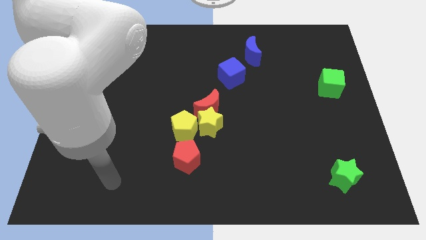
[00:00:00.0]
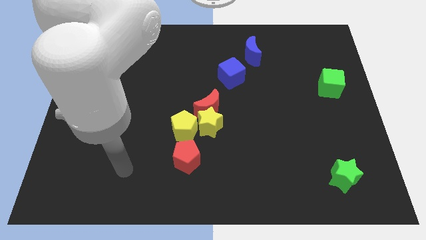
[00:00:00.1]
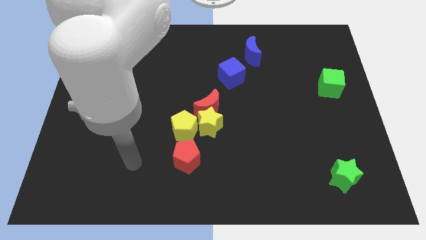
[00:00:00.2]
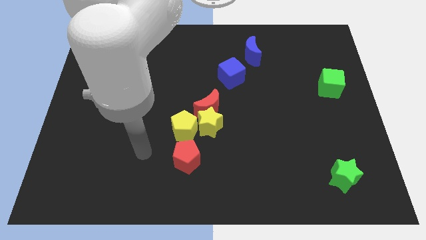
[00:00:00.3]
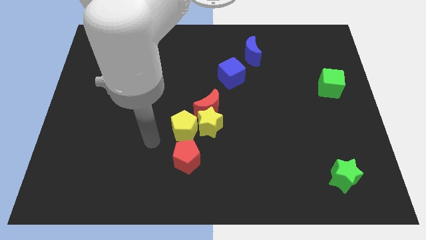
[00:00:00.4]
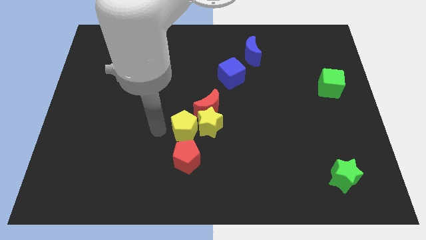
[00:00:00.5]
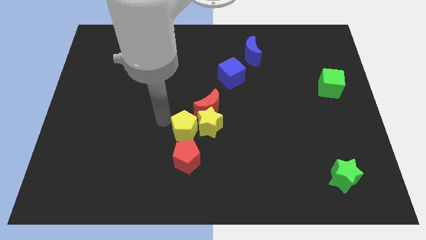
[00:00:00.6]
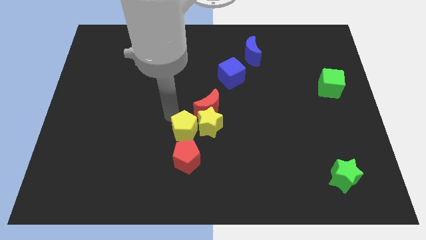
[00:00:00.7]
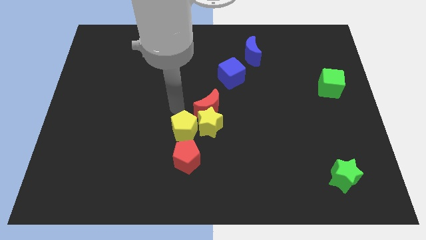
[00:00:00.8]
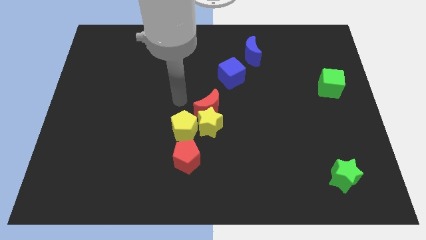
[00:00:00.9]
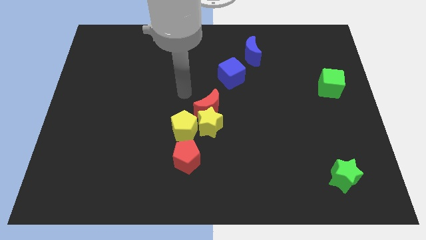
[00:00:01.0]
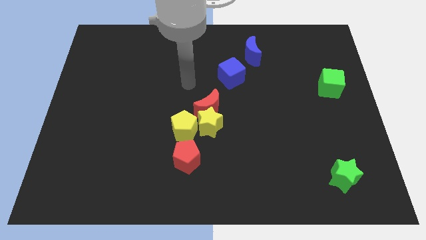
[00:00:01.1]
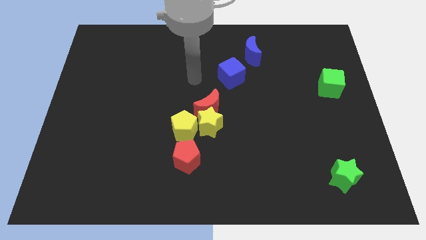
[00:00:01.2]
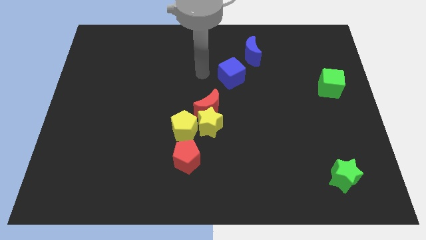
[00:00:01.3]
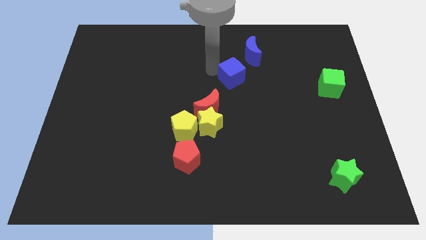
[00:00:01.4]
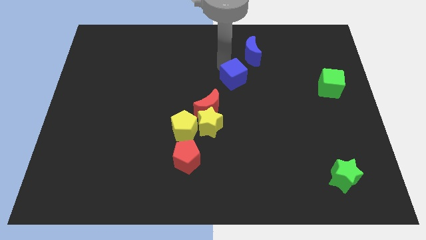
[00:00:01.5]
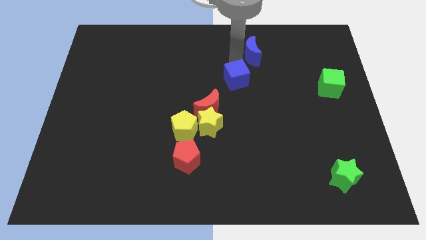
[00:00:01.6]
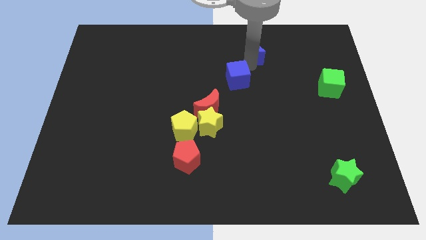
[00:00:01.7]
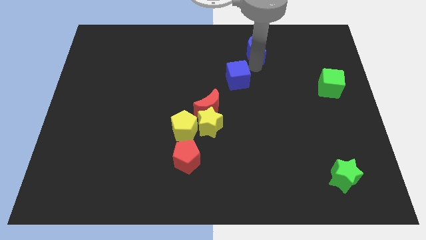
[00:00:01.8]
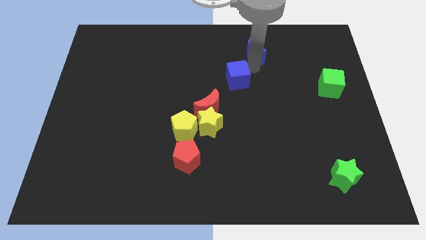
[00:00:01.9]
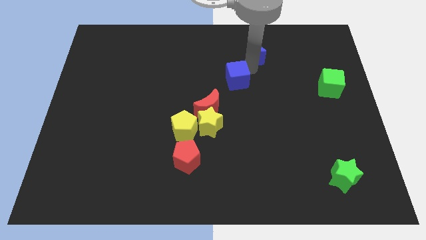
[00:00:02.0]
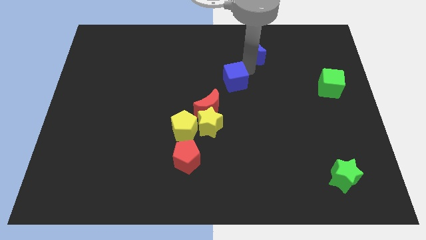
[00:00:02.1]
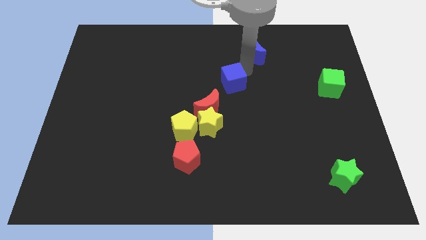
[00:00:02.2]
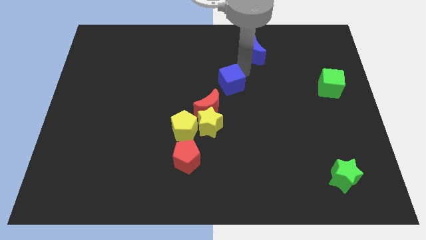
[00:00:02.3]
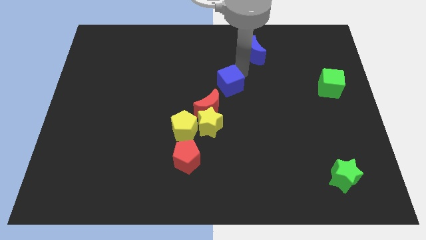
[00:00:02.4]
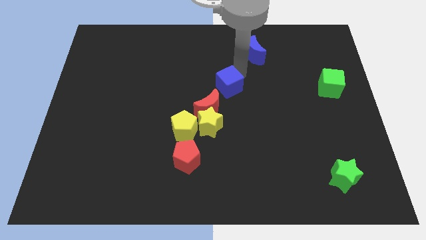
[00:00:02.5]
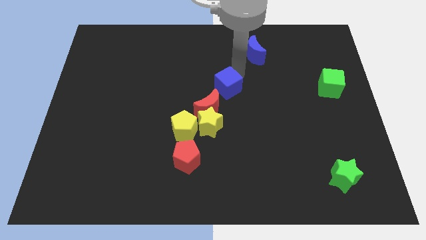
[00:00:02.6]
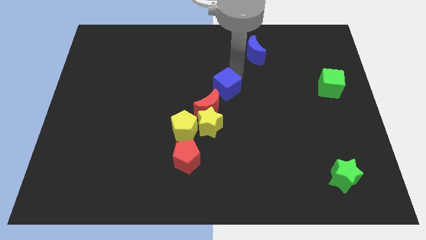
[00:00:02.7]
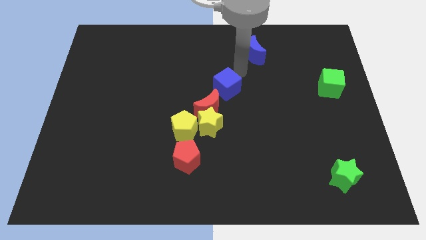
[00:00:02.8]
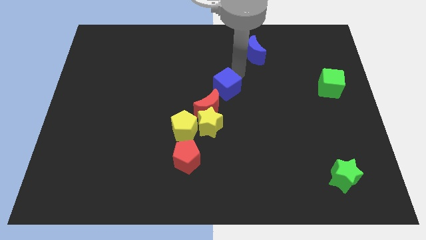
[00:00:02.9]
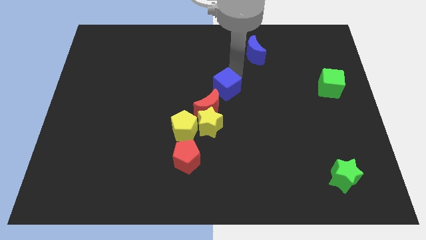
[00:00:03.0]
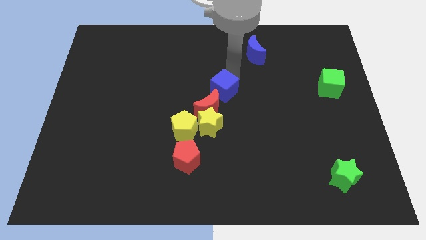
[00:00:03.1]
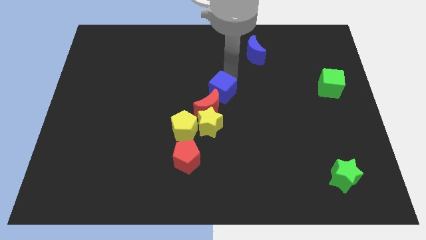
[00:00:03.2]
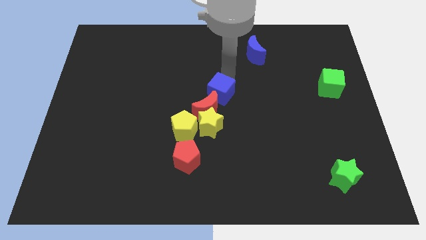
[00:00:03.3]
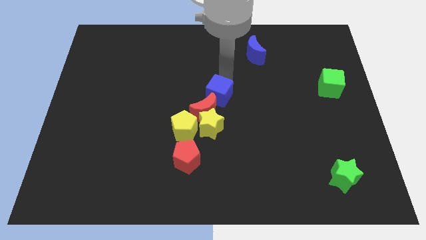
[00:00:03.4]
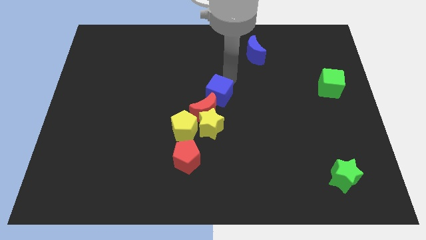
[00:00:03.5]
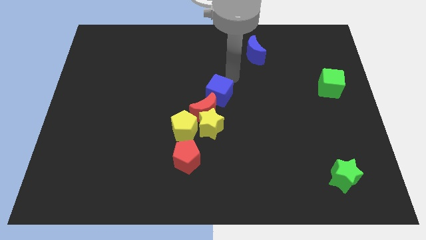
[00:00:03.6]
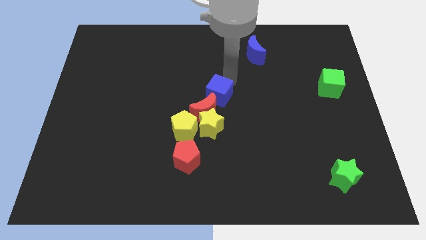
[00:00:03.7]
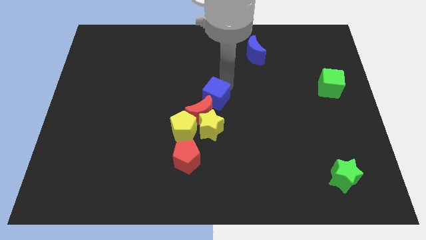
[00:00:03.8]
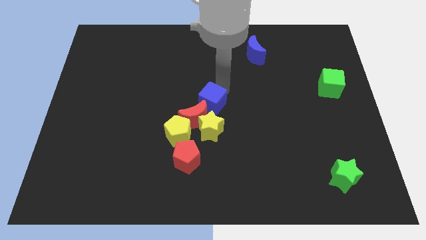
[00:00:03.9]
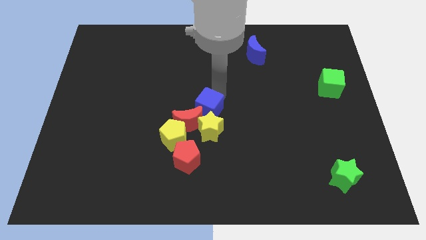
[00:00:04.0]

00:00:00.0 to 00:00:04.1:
push the blue cube next to the red moon

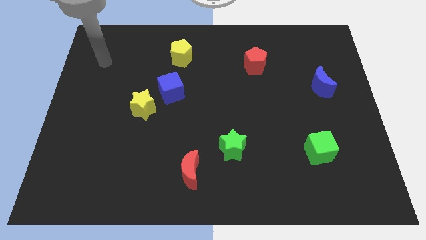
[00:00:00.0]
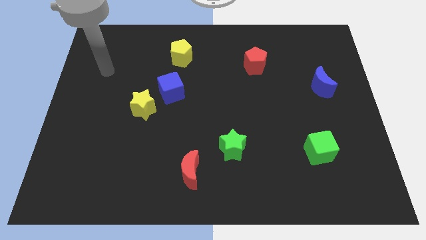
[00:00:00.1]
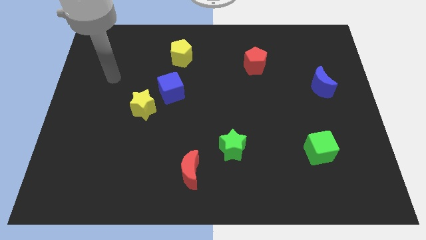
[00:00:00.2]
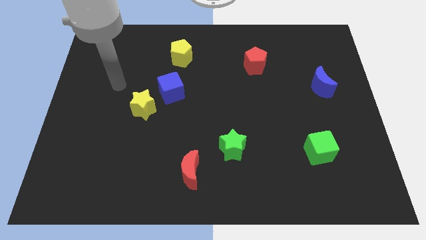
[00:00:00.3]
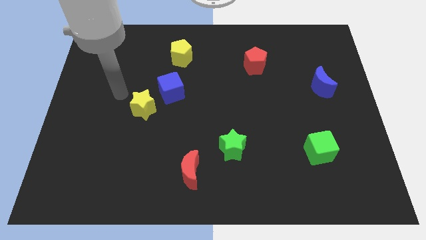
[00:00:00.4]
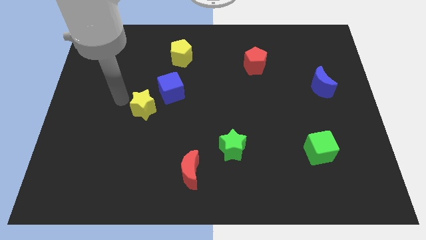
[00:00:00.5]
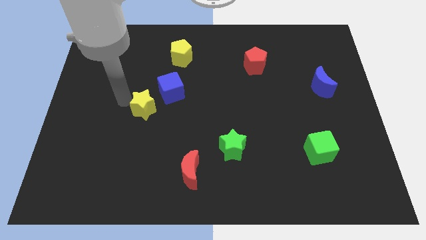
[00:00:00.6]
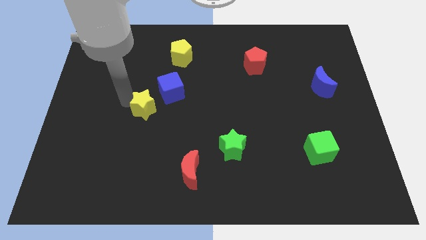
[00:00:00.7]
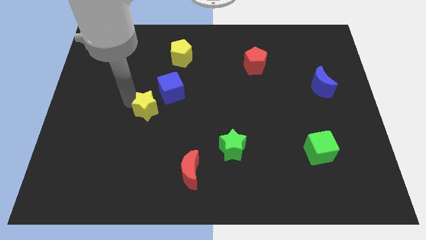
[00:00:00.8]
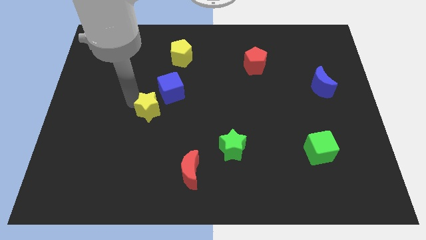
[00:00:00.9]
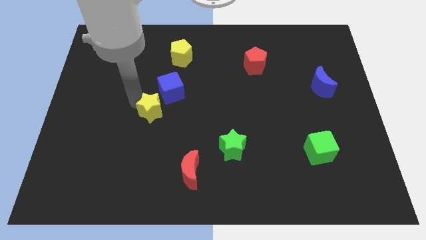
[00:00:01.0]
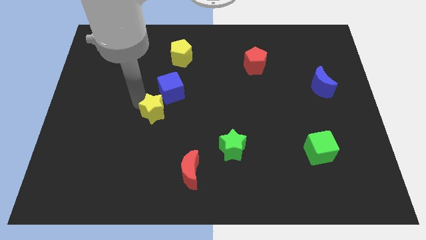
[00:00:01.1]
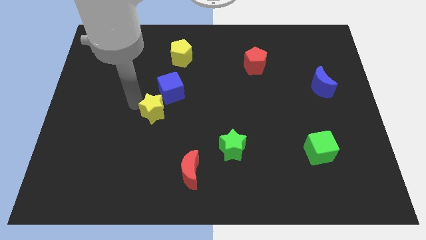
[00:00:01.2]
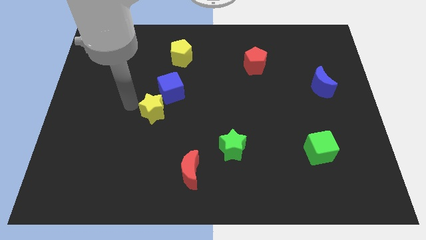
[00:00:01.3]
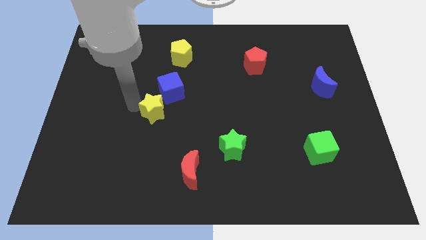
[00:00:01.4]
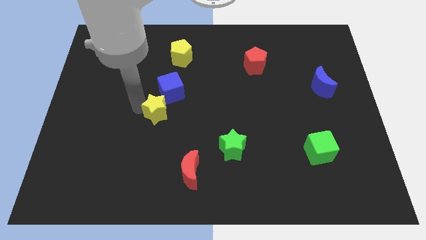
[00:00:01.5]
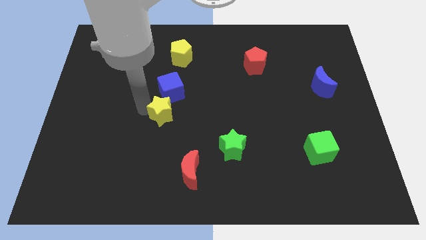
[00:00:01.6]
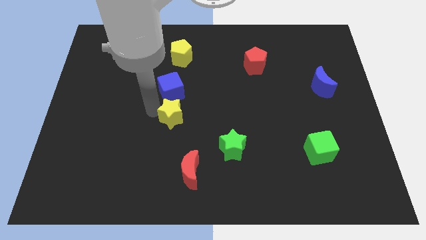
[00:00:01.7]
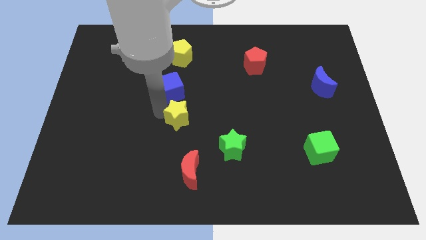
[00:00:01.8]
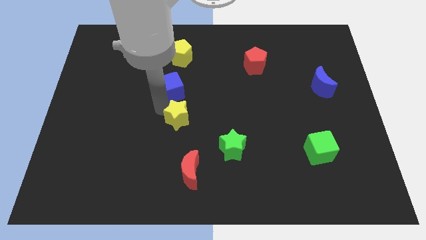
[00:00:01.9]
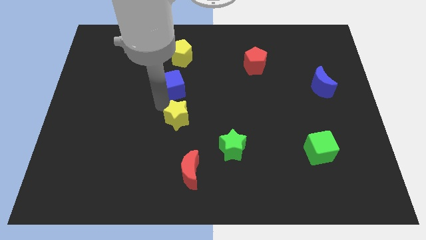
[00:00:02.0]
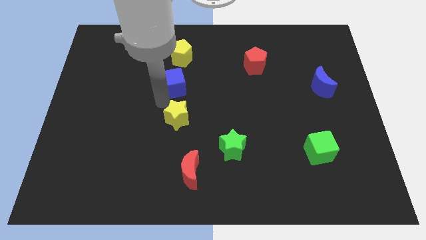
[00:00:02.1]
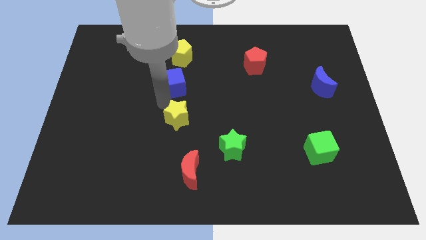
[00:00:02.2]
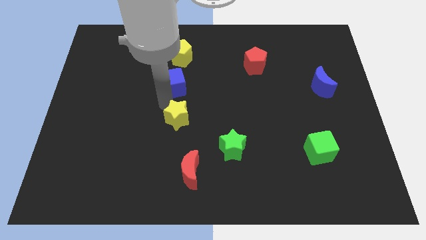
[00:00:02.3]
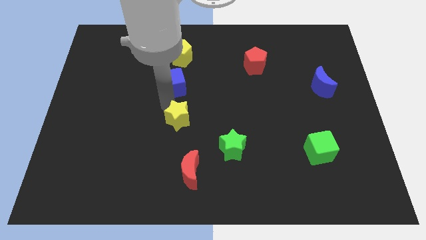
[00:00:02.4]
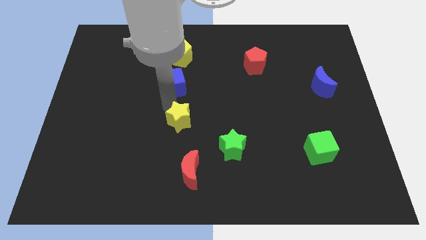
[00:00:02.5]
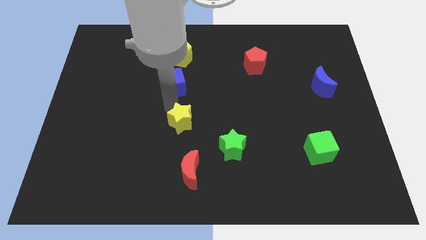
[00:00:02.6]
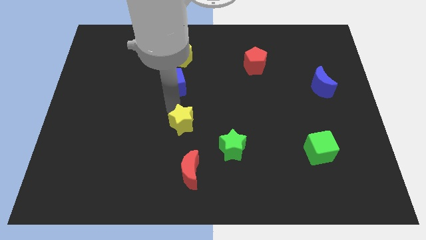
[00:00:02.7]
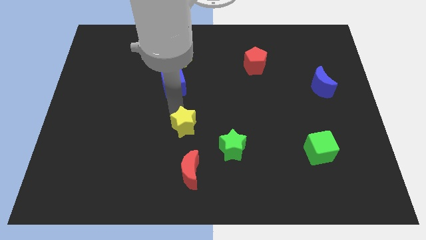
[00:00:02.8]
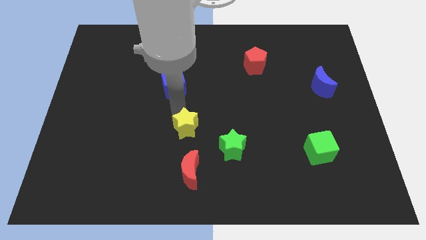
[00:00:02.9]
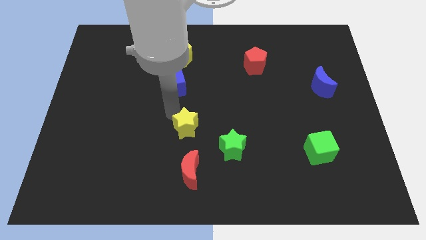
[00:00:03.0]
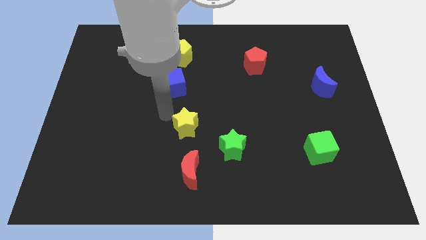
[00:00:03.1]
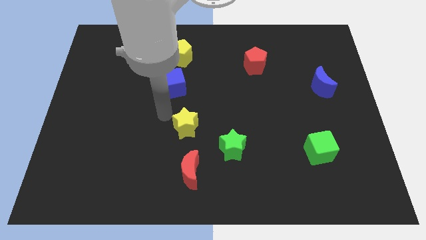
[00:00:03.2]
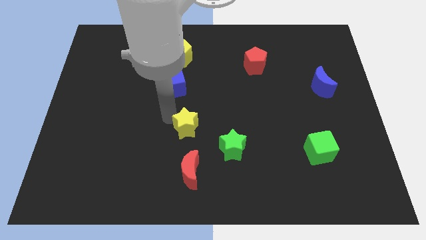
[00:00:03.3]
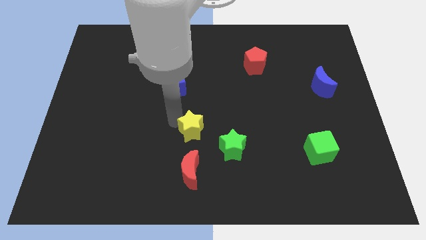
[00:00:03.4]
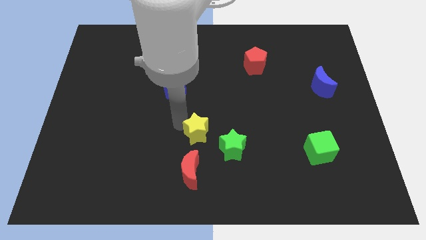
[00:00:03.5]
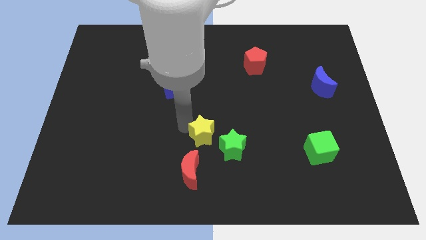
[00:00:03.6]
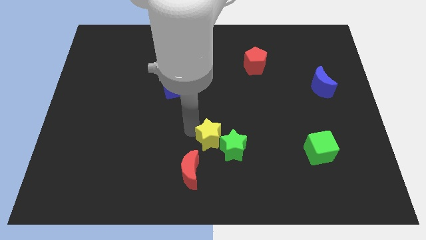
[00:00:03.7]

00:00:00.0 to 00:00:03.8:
slide the yellow star next to the green star
